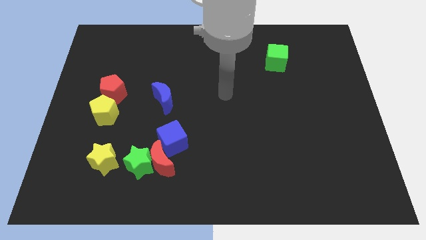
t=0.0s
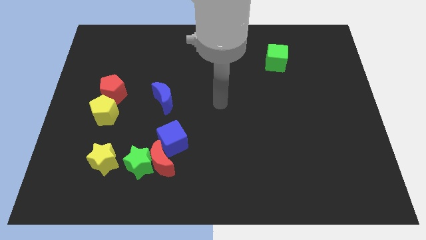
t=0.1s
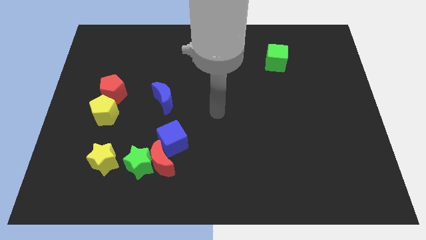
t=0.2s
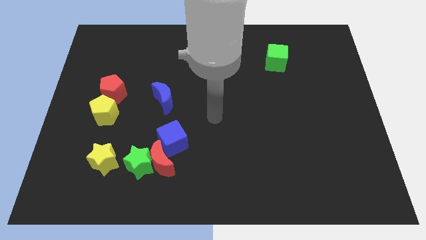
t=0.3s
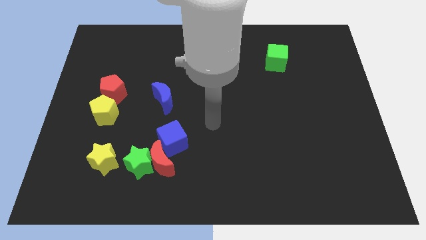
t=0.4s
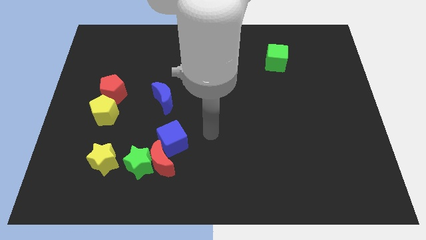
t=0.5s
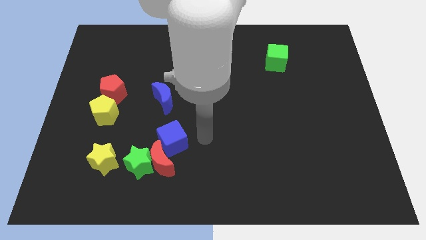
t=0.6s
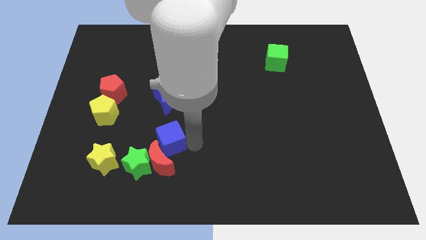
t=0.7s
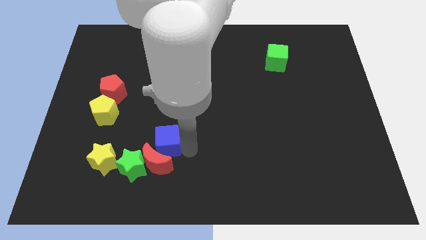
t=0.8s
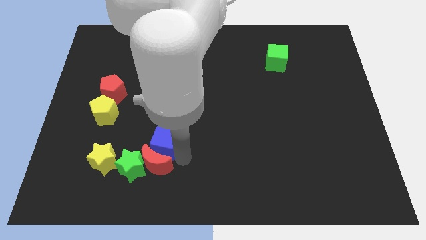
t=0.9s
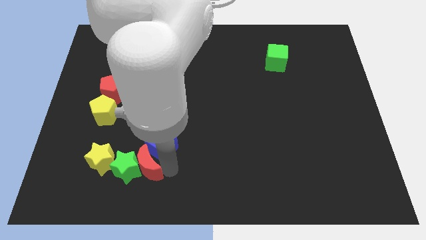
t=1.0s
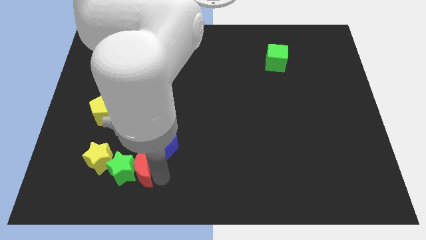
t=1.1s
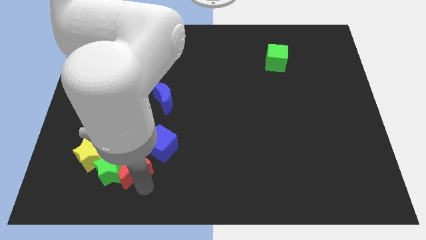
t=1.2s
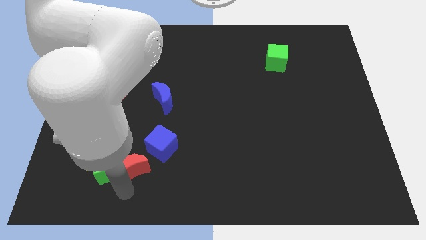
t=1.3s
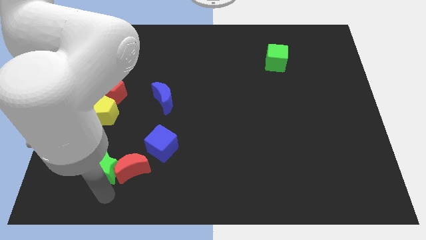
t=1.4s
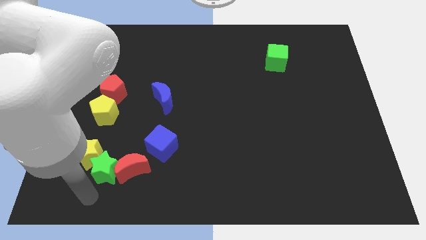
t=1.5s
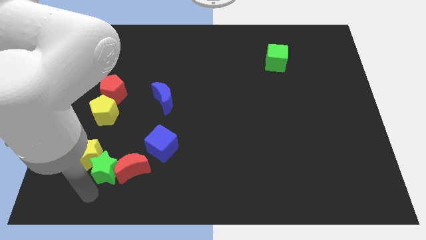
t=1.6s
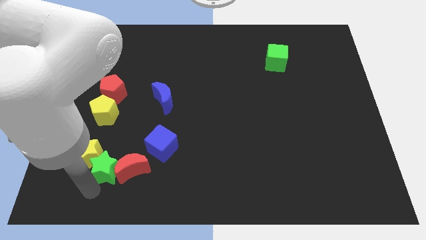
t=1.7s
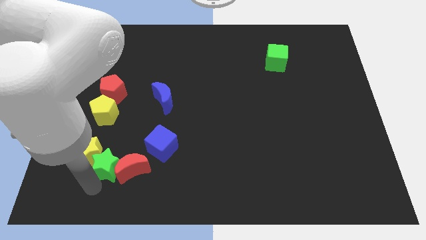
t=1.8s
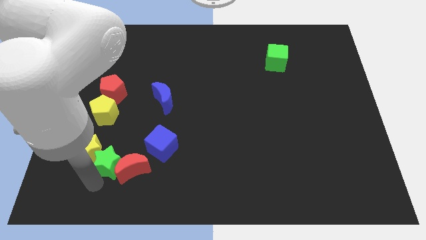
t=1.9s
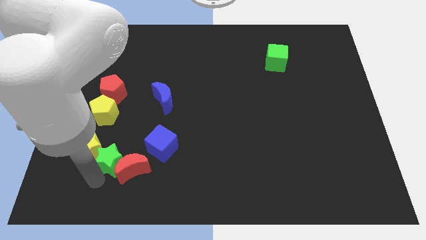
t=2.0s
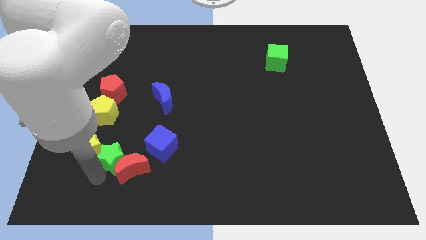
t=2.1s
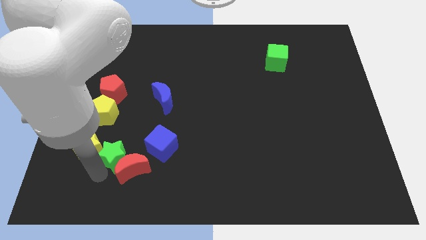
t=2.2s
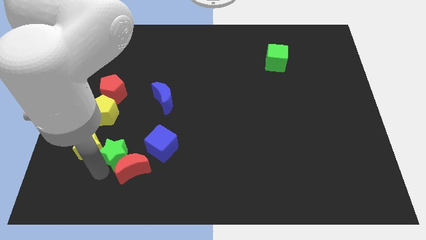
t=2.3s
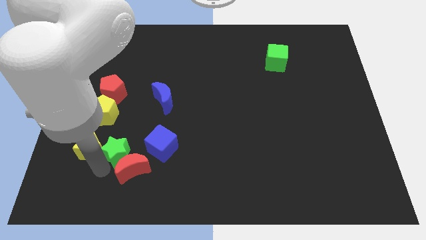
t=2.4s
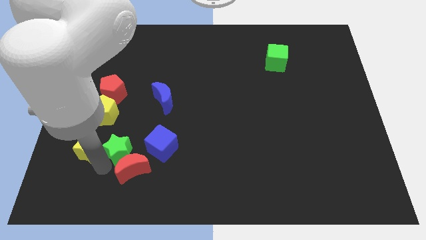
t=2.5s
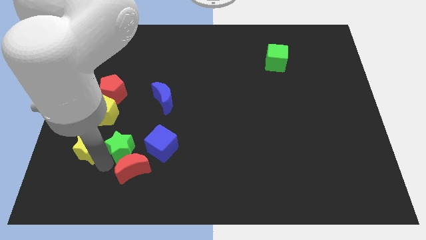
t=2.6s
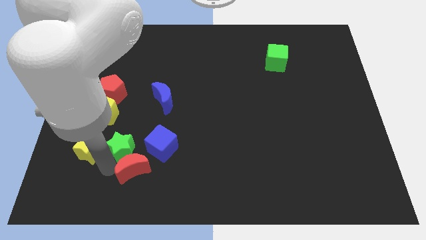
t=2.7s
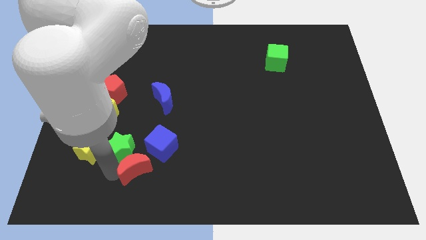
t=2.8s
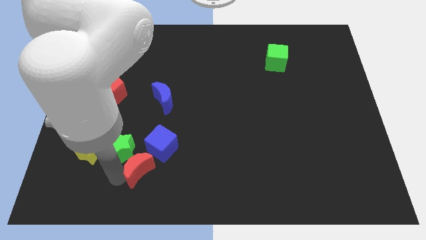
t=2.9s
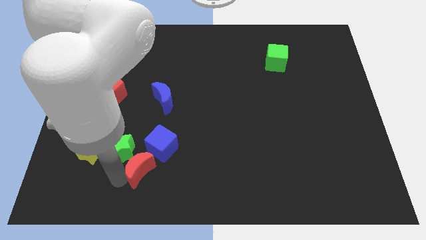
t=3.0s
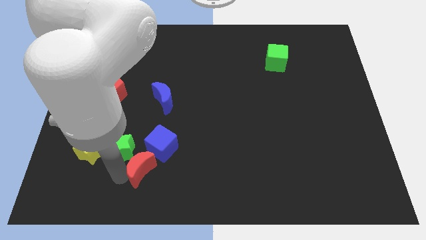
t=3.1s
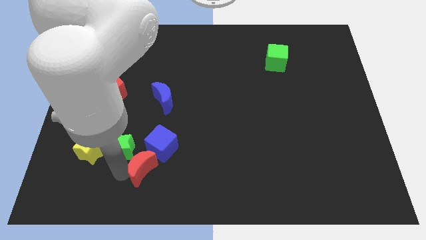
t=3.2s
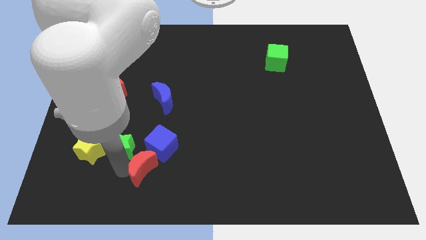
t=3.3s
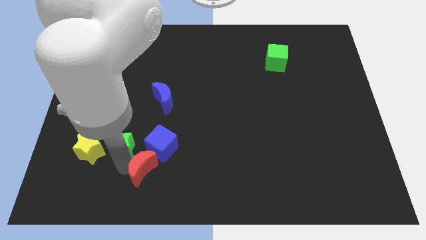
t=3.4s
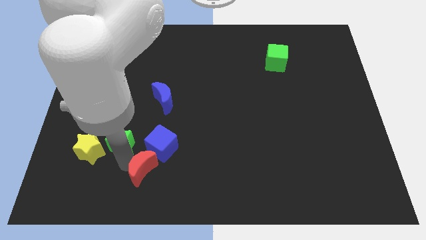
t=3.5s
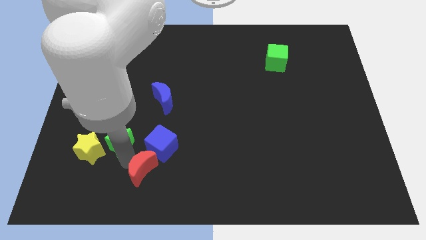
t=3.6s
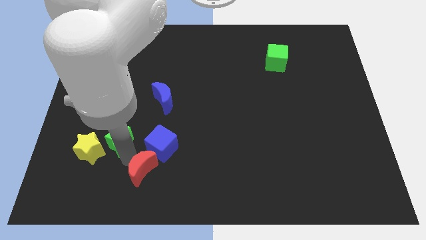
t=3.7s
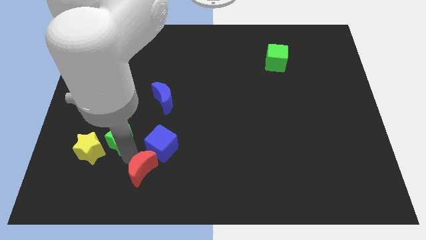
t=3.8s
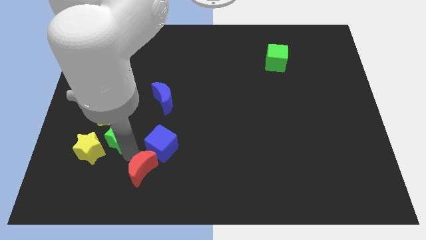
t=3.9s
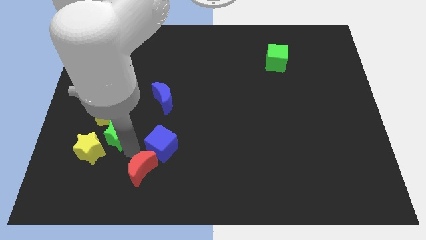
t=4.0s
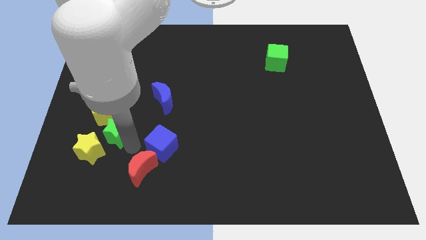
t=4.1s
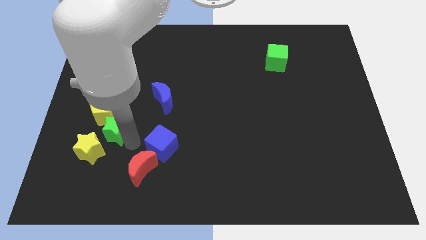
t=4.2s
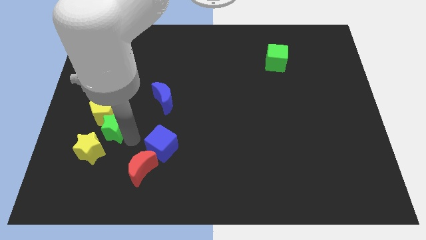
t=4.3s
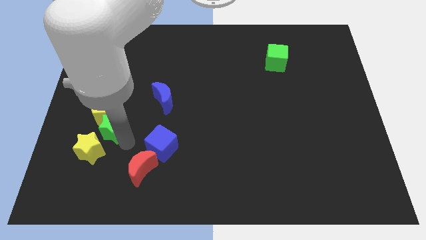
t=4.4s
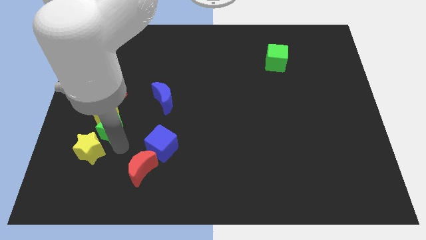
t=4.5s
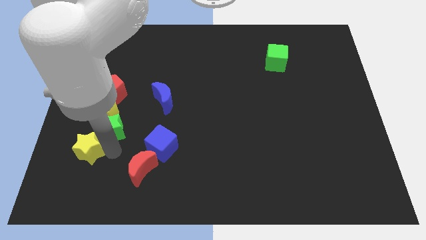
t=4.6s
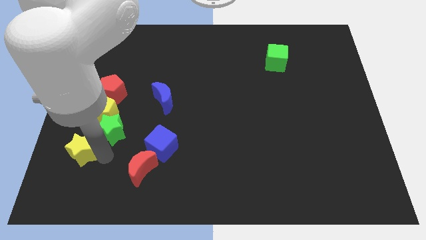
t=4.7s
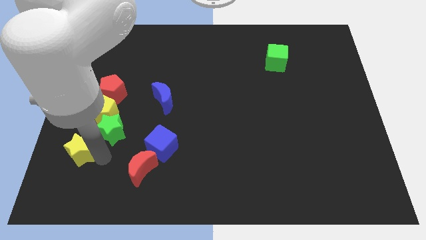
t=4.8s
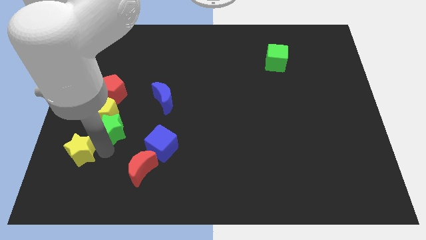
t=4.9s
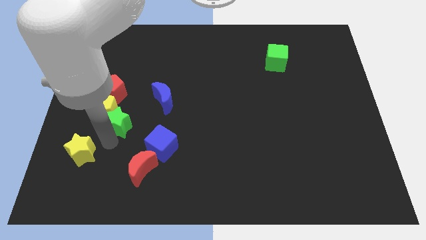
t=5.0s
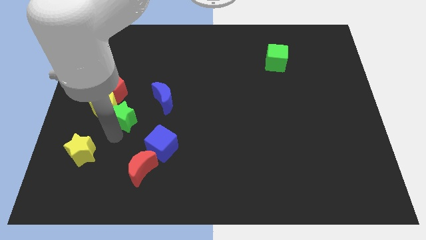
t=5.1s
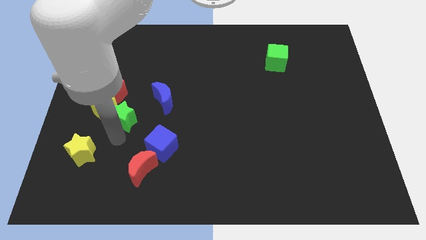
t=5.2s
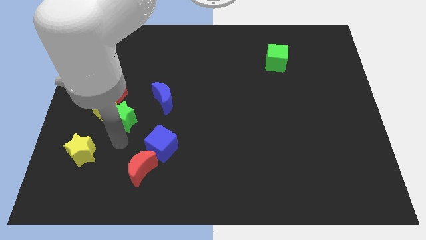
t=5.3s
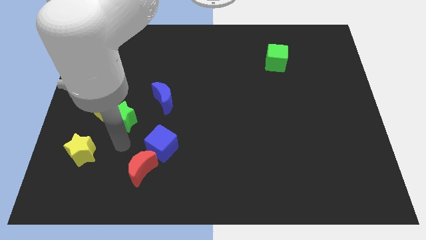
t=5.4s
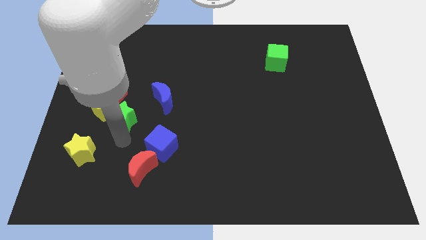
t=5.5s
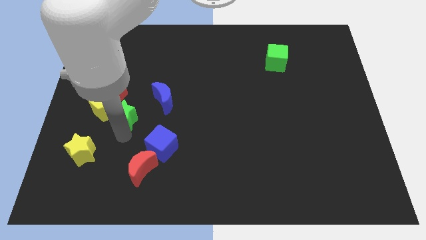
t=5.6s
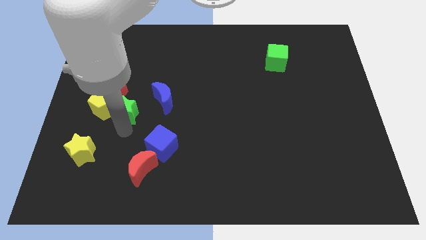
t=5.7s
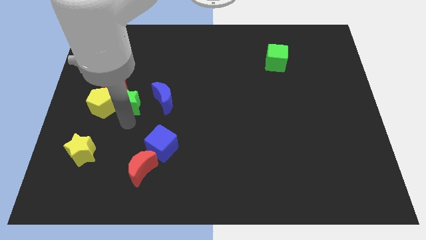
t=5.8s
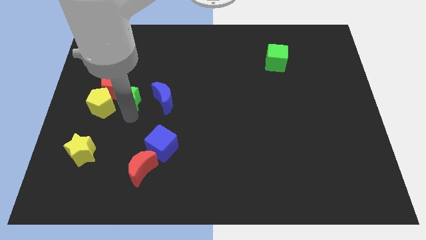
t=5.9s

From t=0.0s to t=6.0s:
move the green star next to the red pentagon

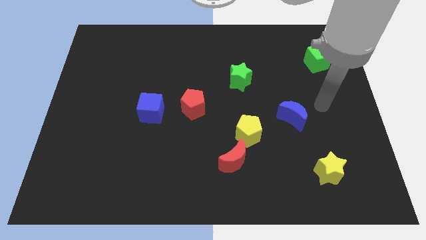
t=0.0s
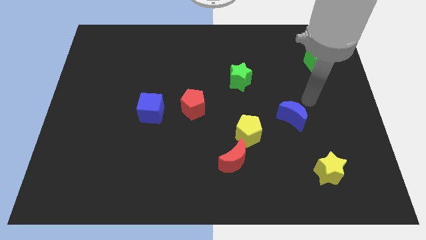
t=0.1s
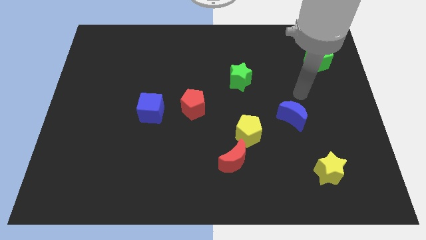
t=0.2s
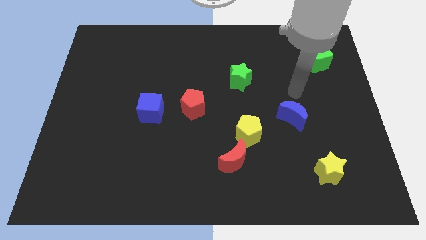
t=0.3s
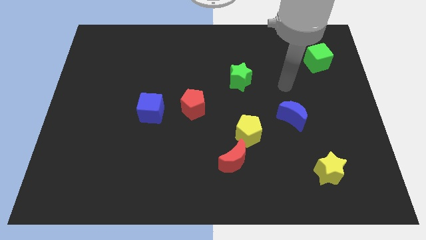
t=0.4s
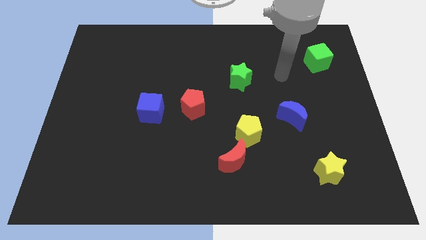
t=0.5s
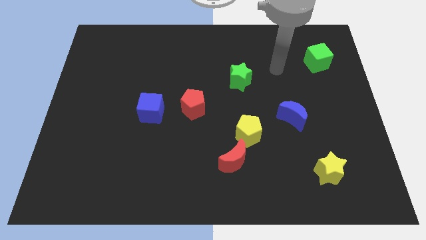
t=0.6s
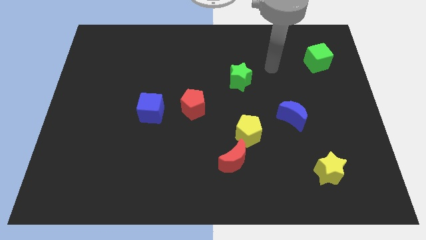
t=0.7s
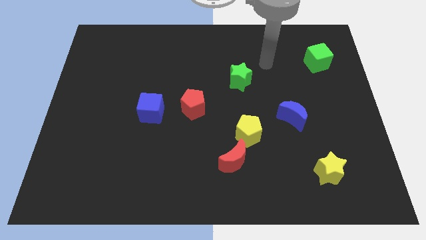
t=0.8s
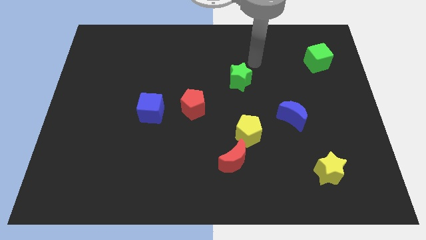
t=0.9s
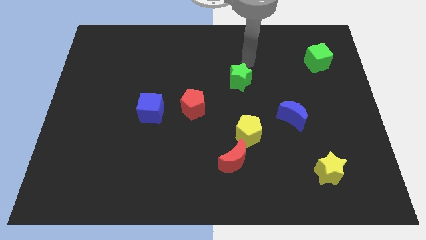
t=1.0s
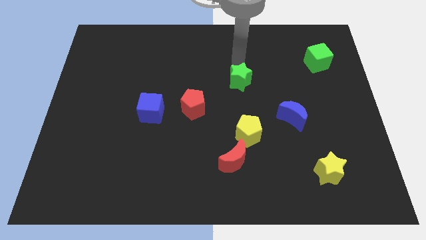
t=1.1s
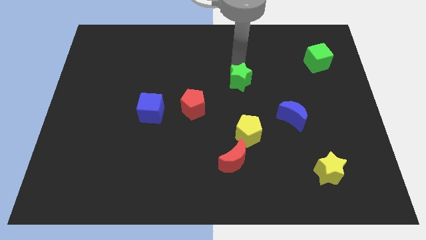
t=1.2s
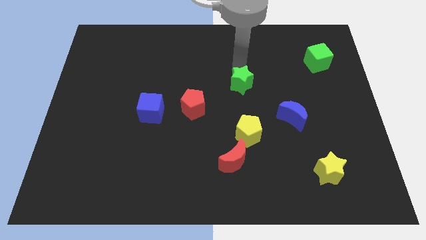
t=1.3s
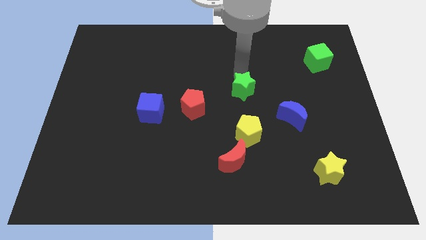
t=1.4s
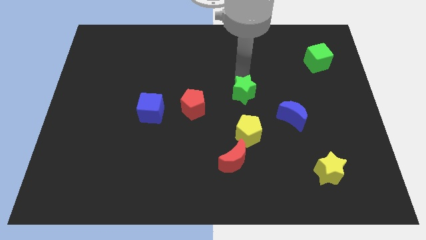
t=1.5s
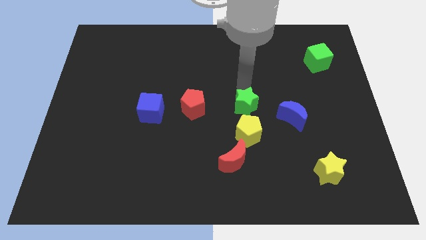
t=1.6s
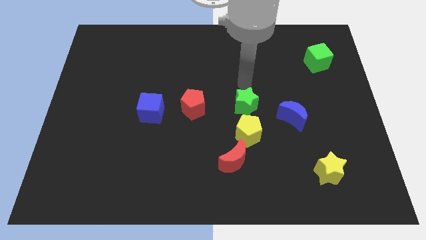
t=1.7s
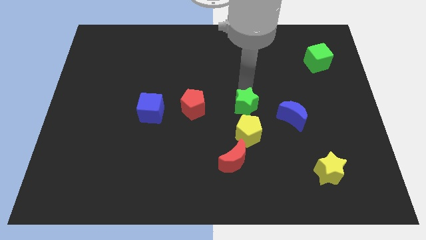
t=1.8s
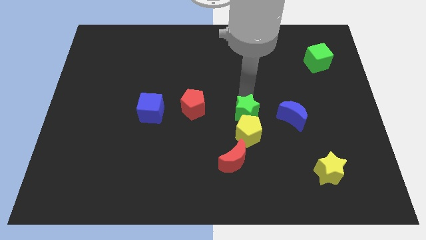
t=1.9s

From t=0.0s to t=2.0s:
move the green star next to the yellow pentagon
